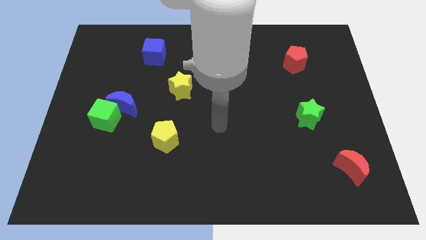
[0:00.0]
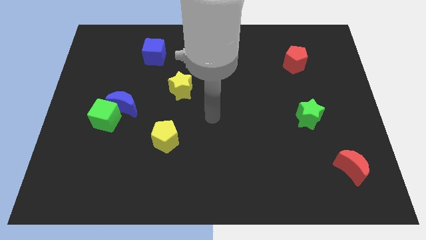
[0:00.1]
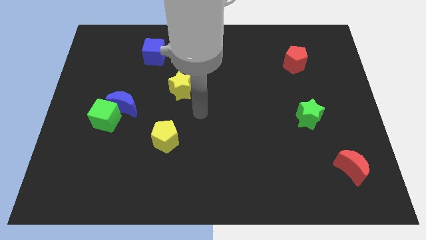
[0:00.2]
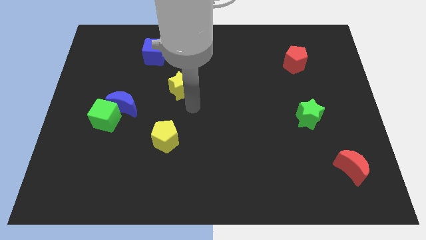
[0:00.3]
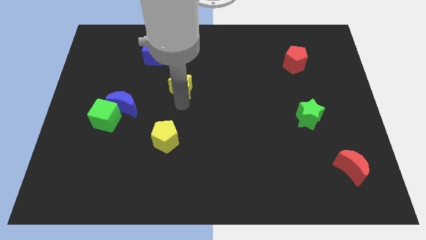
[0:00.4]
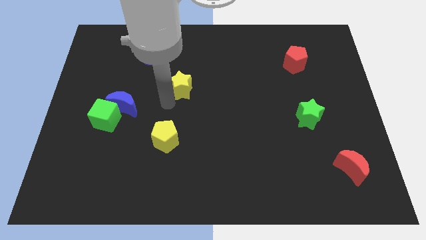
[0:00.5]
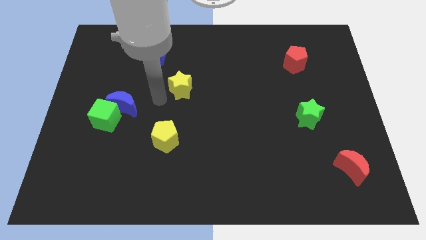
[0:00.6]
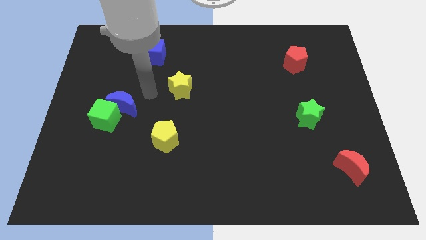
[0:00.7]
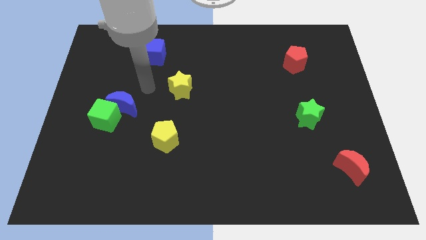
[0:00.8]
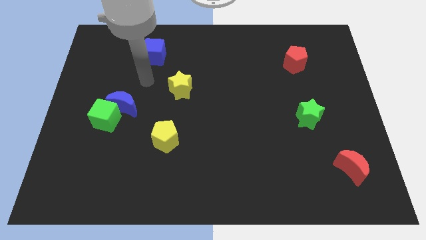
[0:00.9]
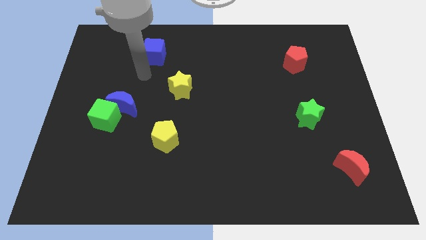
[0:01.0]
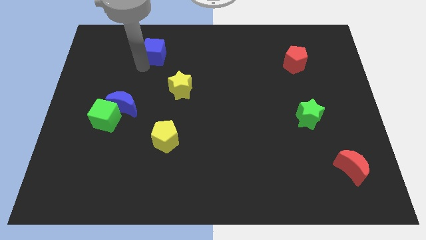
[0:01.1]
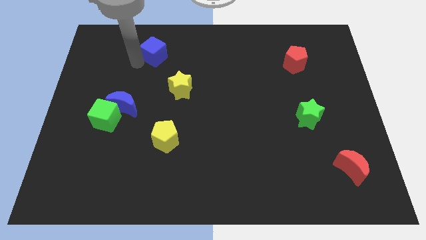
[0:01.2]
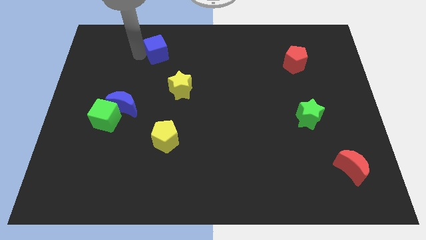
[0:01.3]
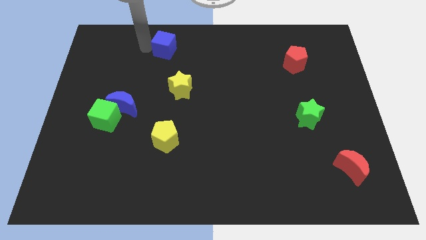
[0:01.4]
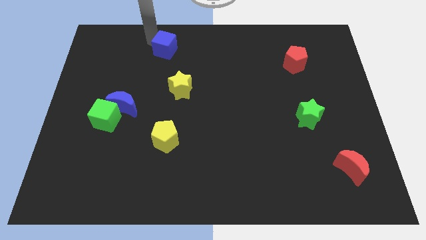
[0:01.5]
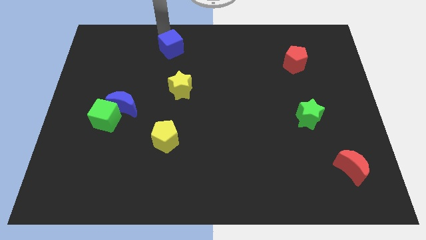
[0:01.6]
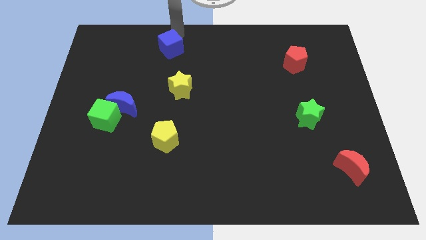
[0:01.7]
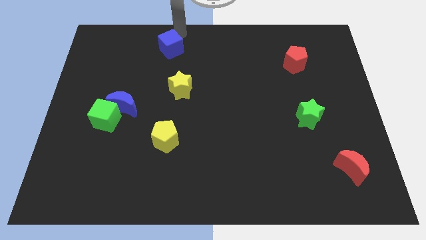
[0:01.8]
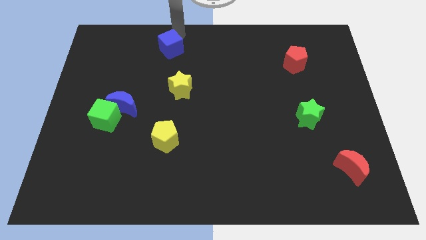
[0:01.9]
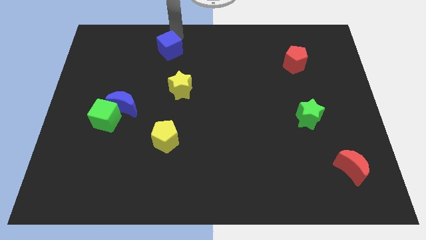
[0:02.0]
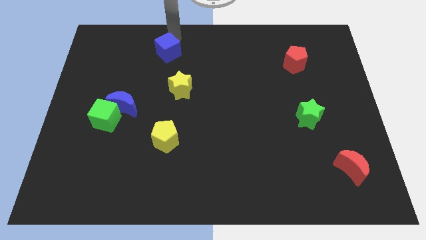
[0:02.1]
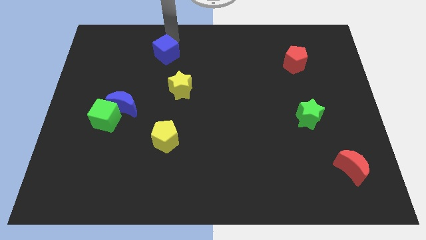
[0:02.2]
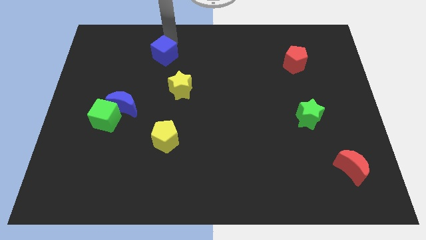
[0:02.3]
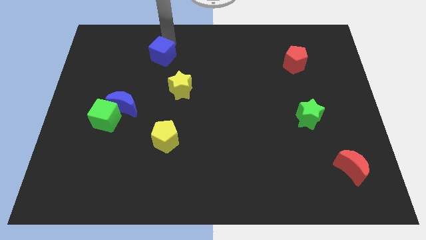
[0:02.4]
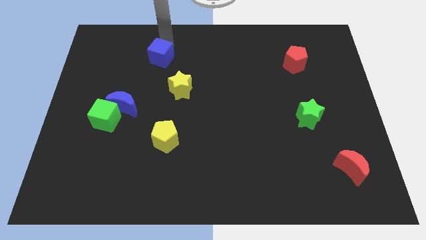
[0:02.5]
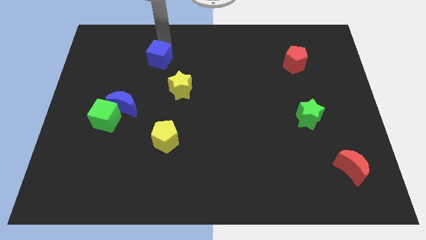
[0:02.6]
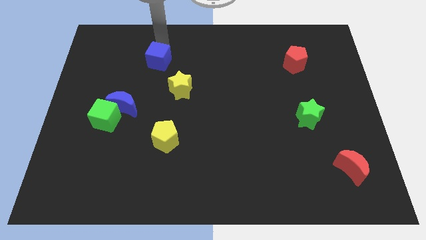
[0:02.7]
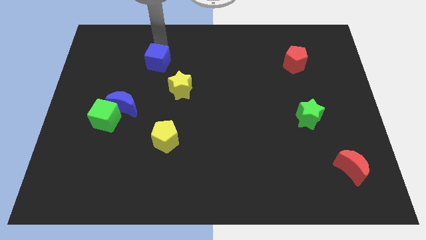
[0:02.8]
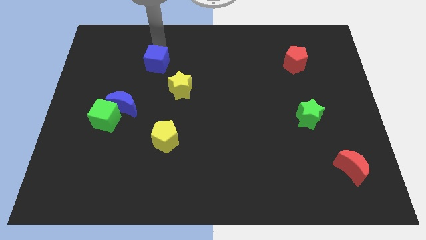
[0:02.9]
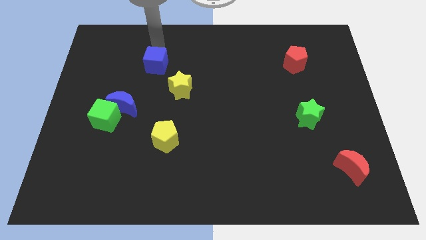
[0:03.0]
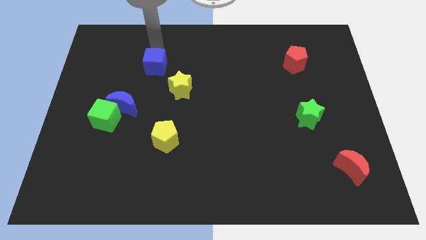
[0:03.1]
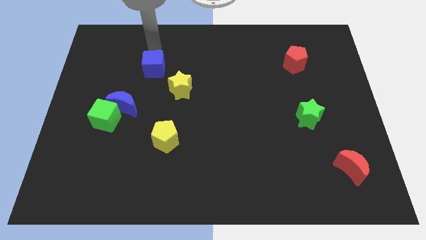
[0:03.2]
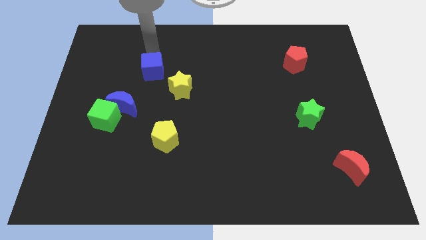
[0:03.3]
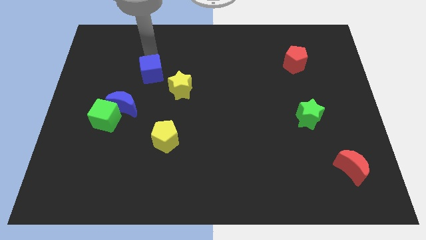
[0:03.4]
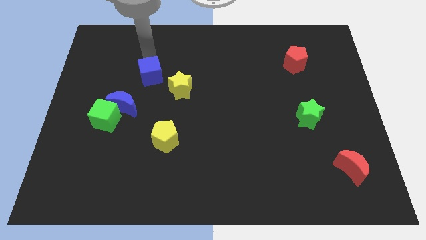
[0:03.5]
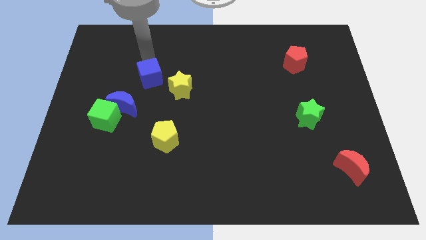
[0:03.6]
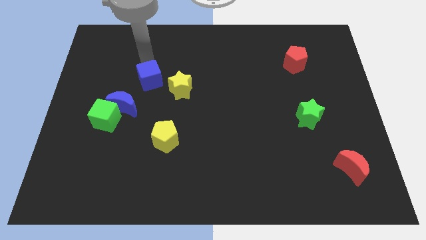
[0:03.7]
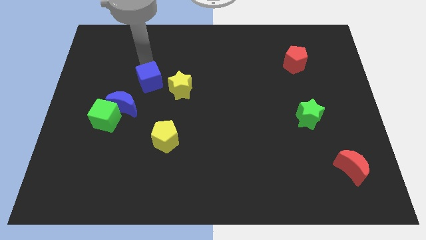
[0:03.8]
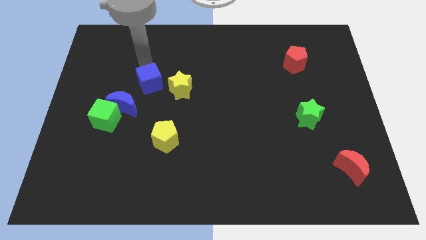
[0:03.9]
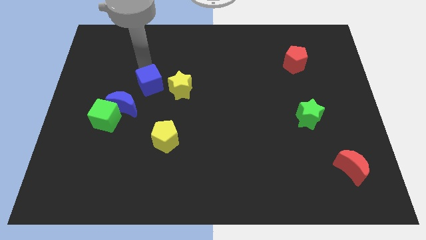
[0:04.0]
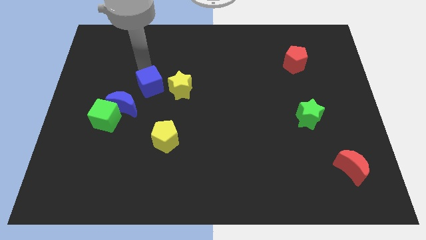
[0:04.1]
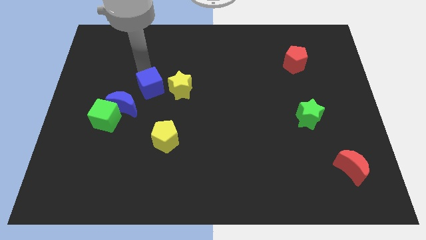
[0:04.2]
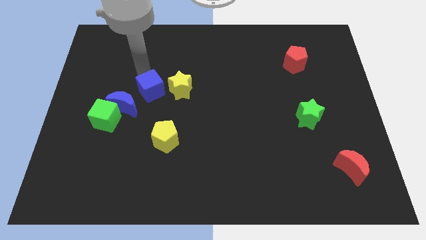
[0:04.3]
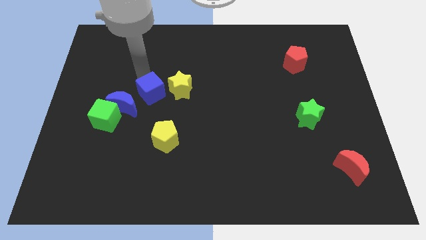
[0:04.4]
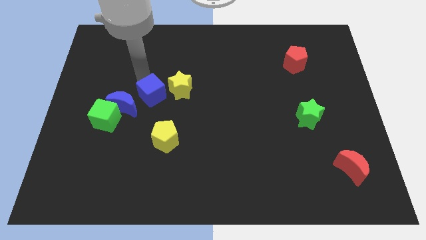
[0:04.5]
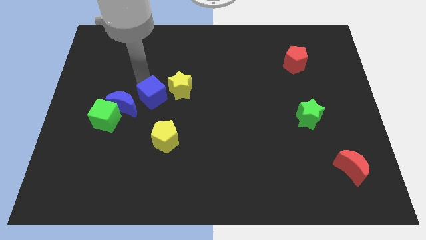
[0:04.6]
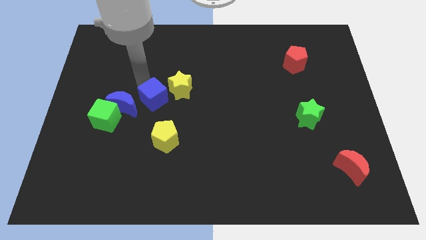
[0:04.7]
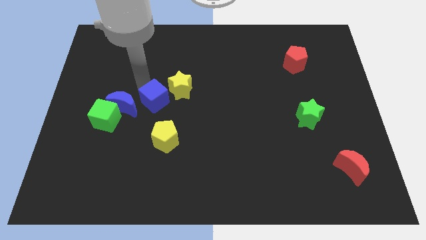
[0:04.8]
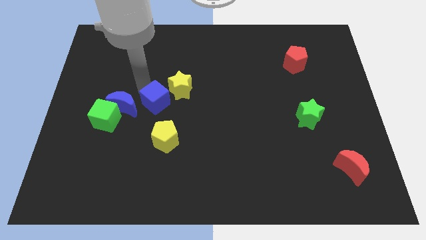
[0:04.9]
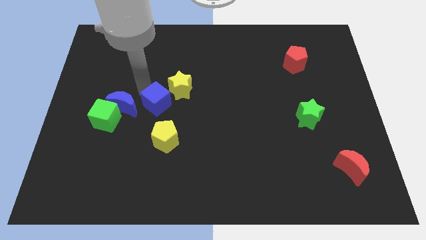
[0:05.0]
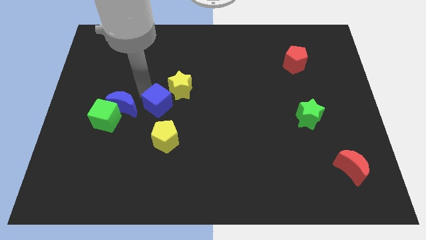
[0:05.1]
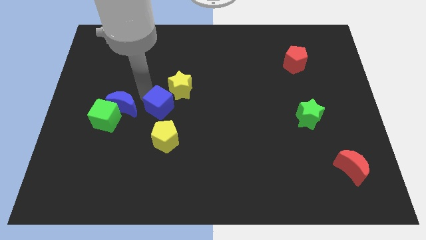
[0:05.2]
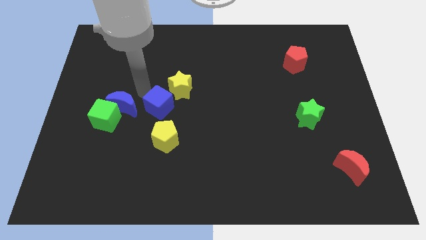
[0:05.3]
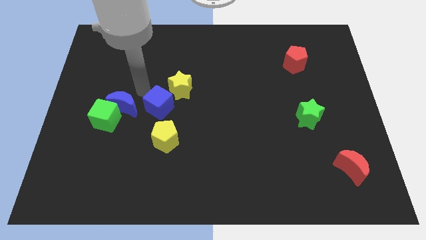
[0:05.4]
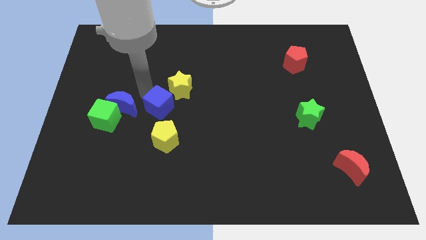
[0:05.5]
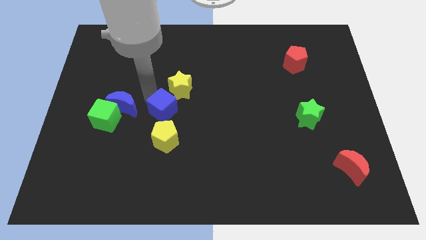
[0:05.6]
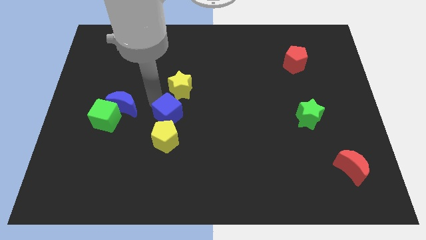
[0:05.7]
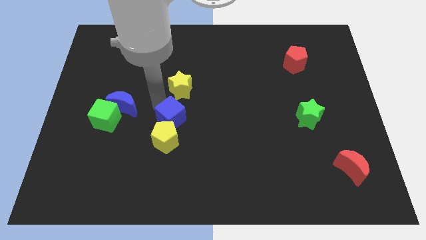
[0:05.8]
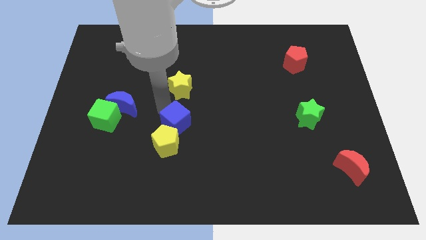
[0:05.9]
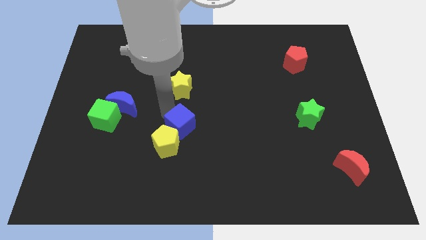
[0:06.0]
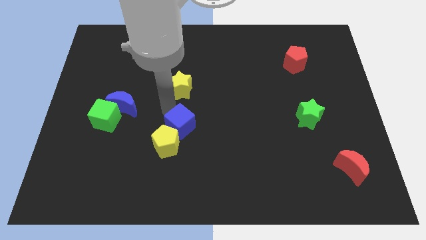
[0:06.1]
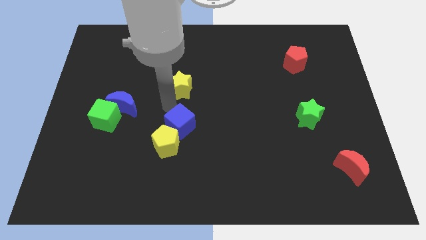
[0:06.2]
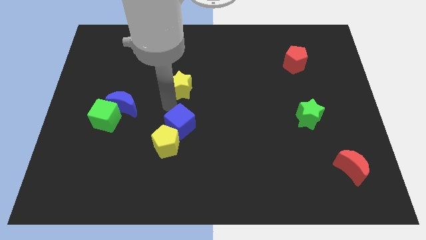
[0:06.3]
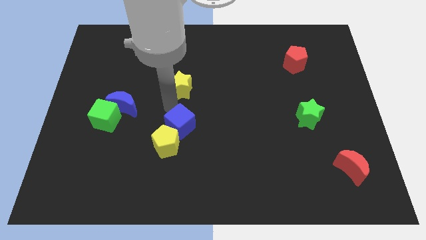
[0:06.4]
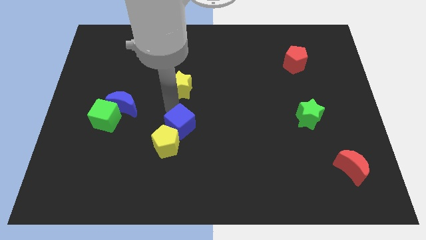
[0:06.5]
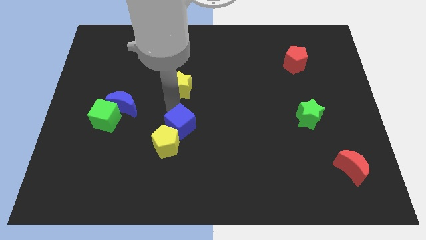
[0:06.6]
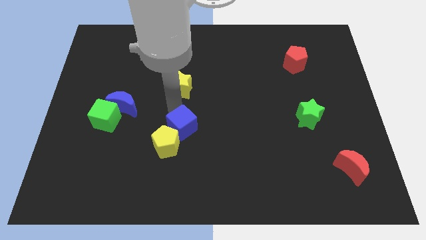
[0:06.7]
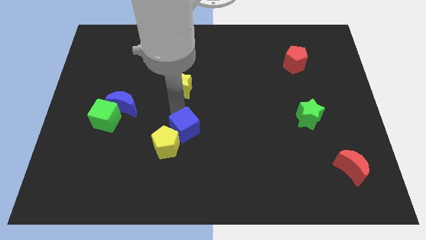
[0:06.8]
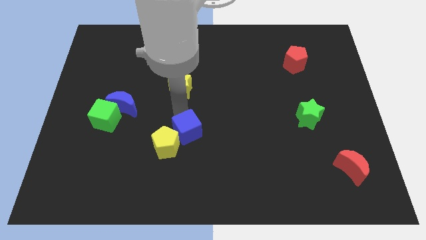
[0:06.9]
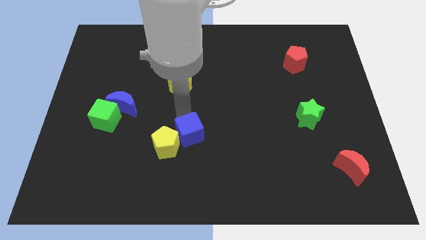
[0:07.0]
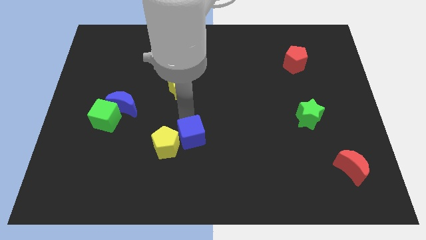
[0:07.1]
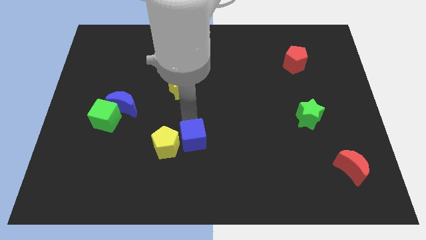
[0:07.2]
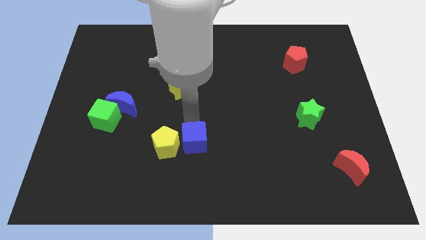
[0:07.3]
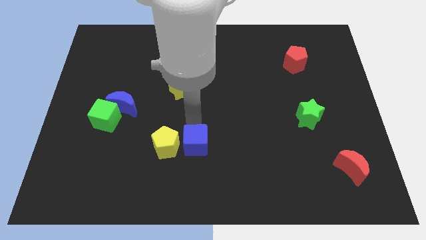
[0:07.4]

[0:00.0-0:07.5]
push the blue cube to the bottom right of the yellow pentagon

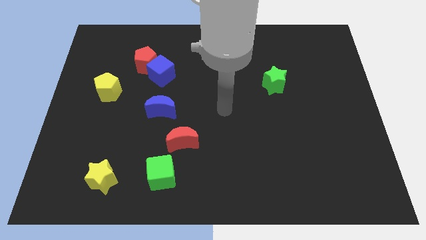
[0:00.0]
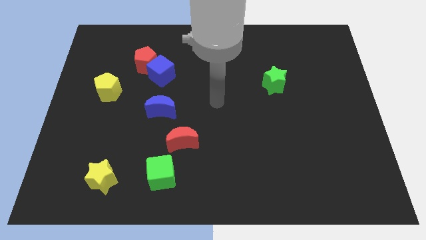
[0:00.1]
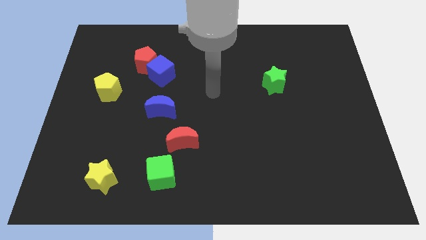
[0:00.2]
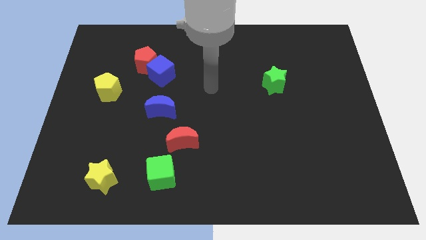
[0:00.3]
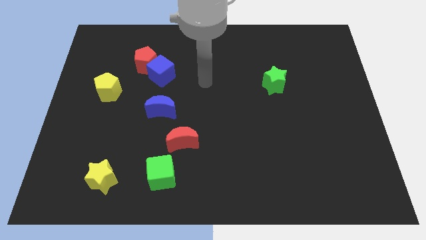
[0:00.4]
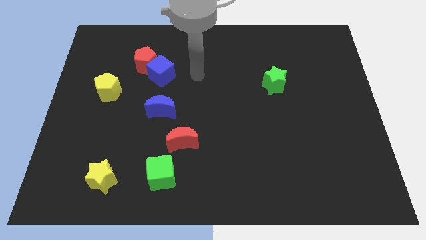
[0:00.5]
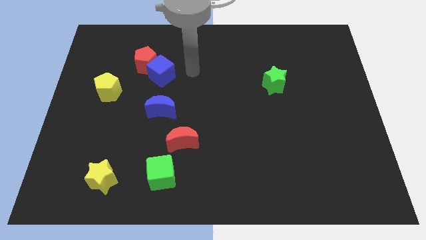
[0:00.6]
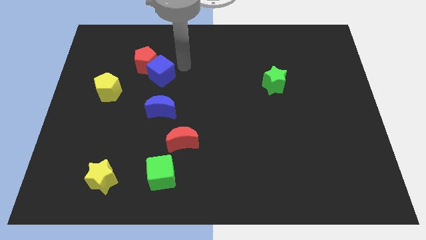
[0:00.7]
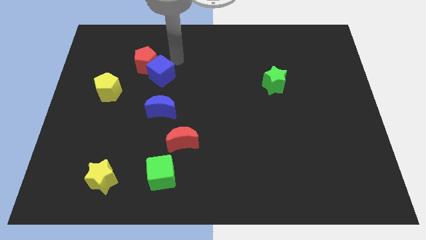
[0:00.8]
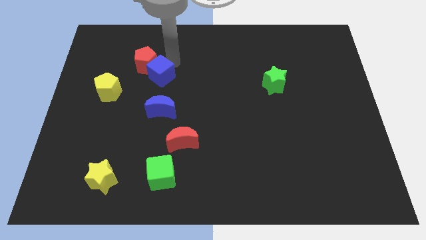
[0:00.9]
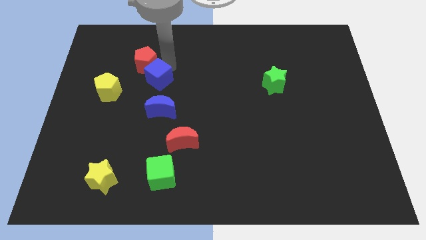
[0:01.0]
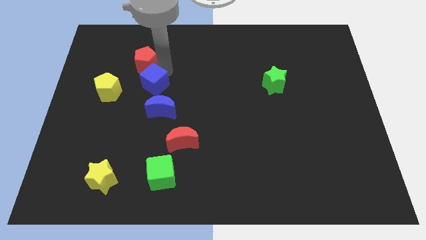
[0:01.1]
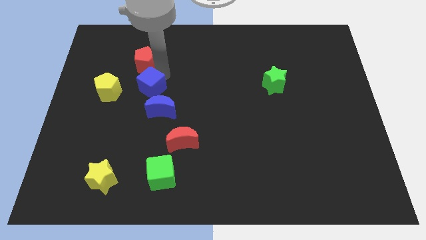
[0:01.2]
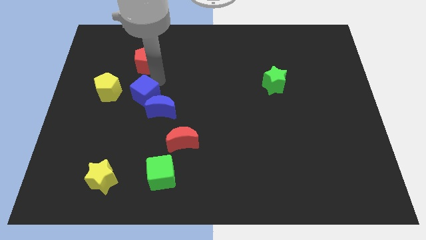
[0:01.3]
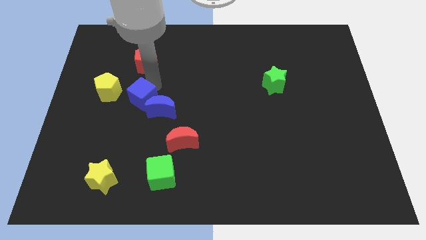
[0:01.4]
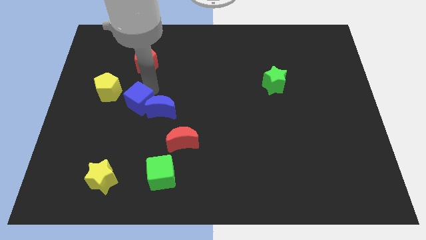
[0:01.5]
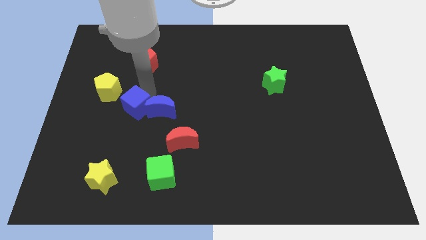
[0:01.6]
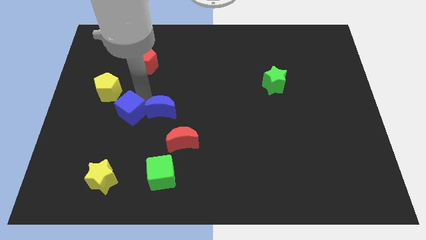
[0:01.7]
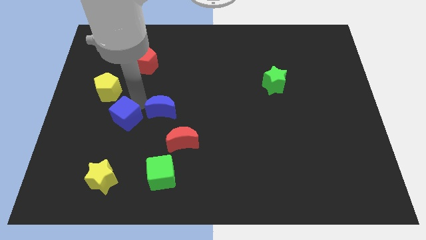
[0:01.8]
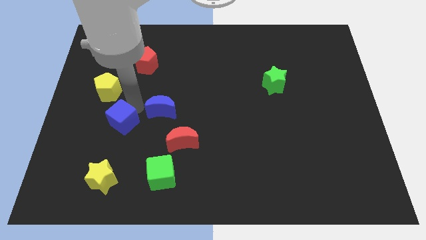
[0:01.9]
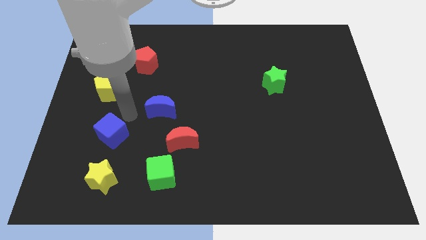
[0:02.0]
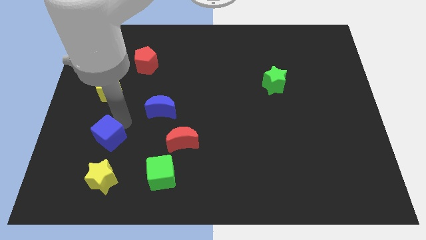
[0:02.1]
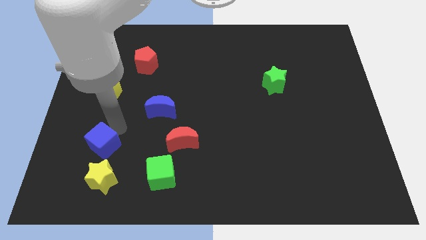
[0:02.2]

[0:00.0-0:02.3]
slide the blue cube diagonally up and to the left of the yellow star
